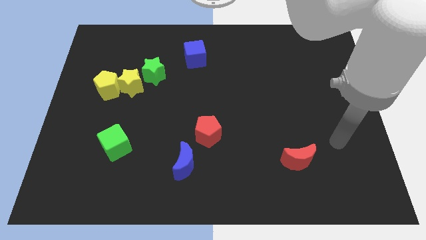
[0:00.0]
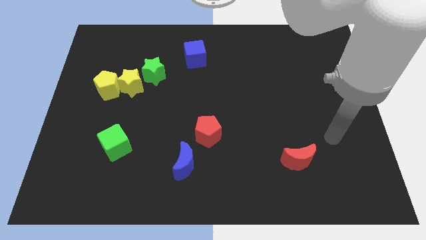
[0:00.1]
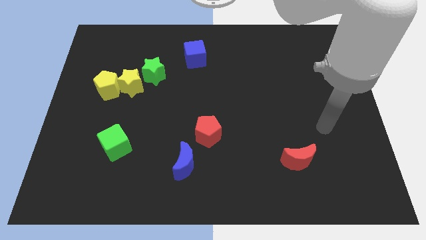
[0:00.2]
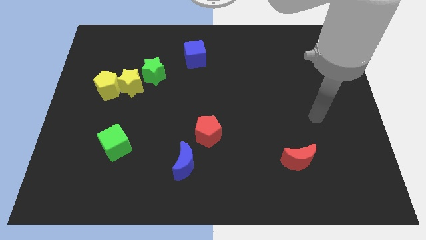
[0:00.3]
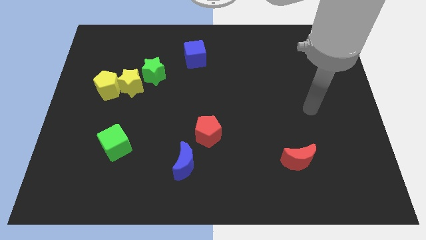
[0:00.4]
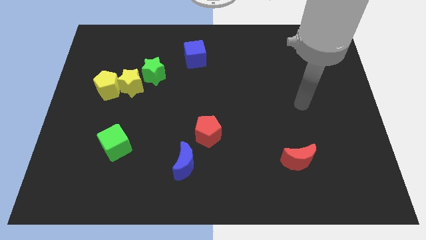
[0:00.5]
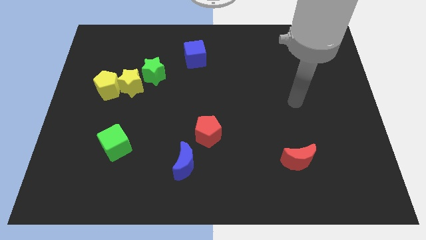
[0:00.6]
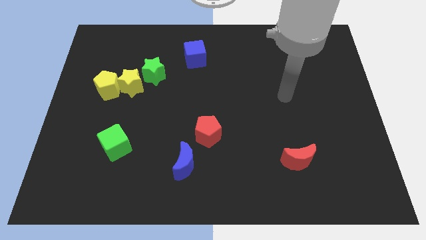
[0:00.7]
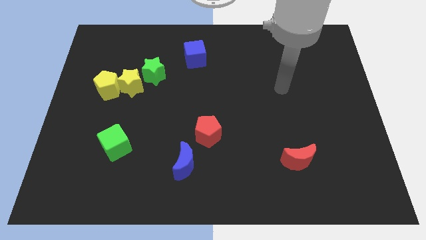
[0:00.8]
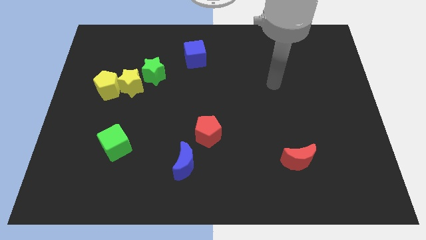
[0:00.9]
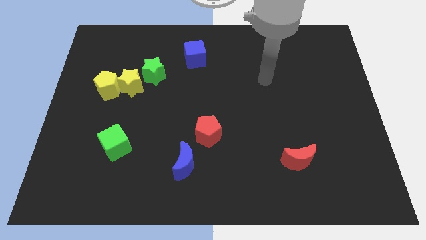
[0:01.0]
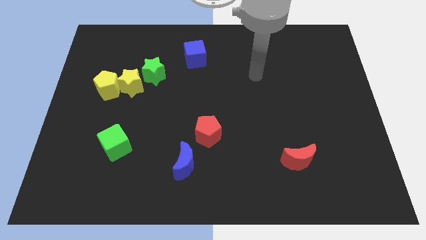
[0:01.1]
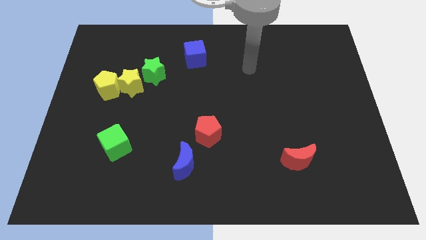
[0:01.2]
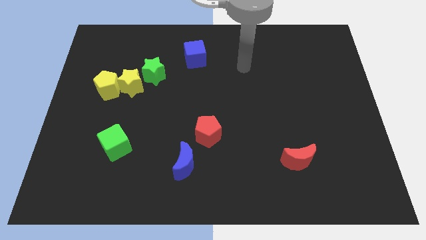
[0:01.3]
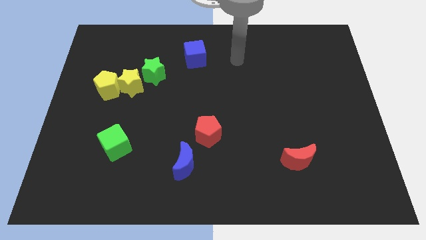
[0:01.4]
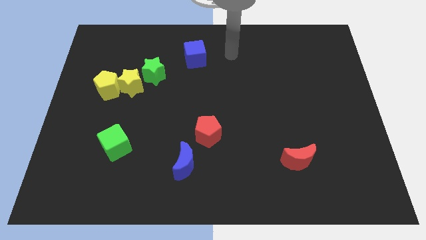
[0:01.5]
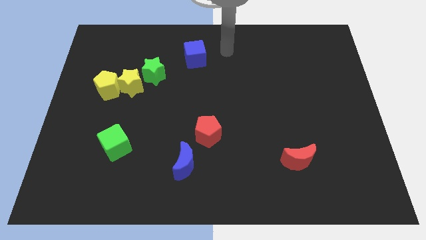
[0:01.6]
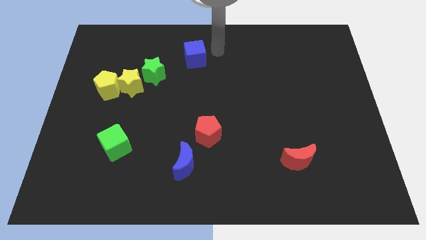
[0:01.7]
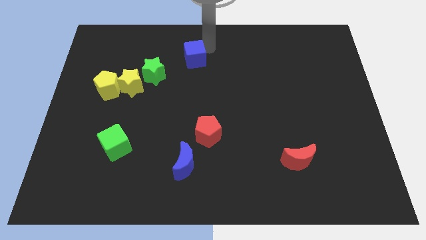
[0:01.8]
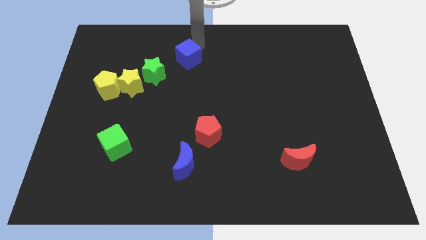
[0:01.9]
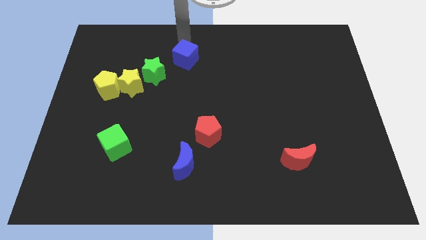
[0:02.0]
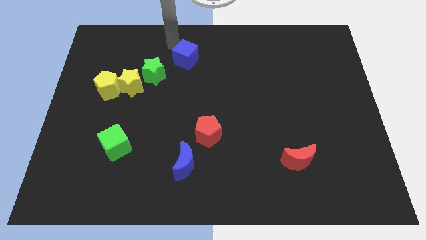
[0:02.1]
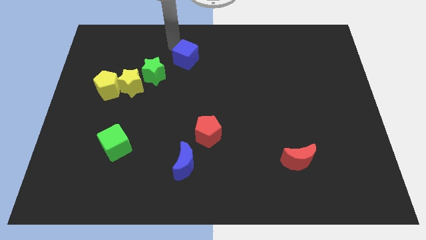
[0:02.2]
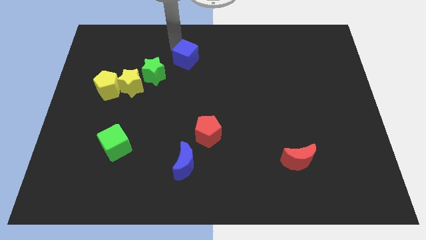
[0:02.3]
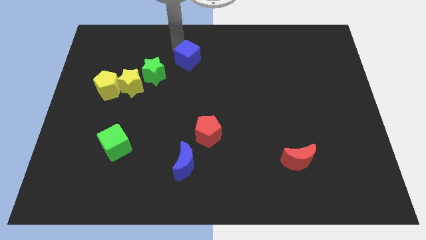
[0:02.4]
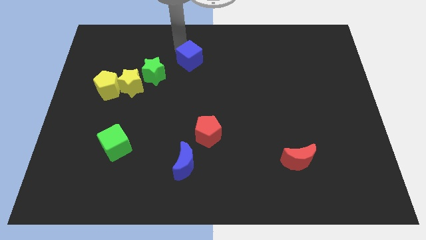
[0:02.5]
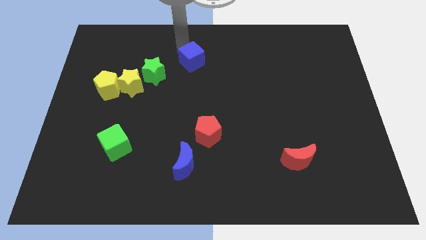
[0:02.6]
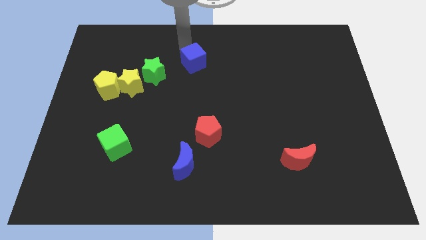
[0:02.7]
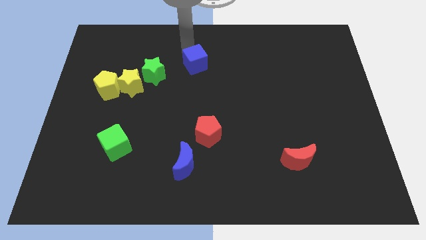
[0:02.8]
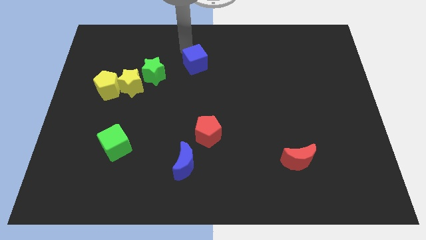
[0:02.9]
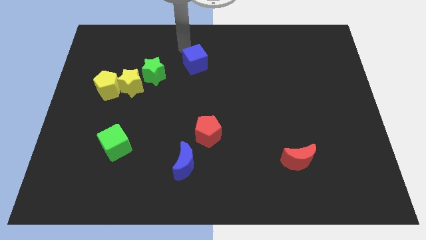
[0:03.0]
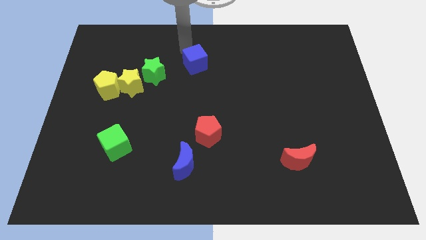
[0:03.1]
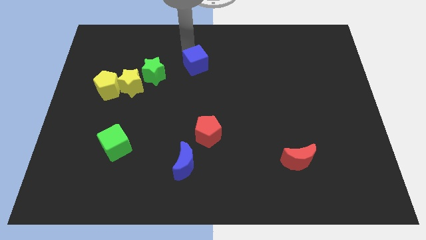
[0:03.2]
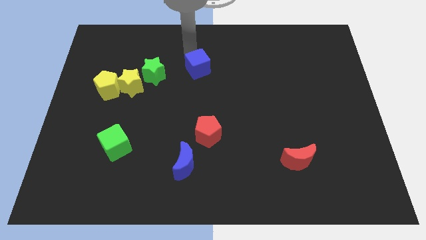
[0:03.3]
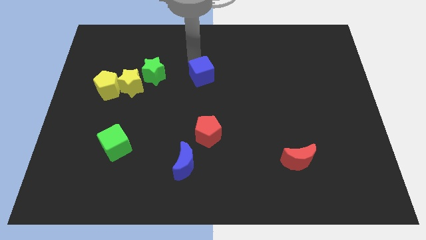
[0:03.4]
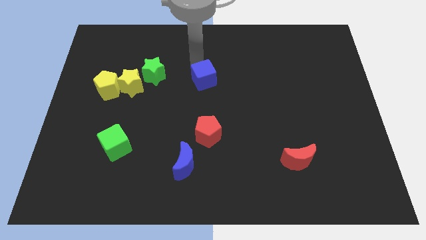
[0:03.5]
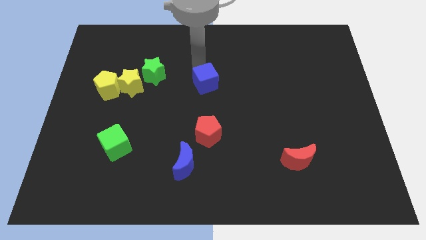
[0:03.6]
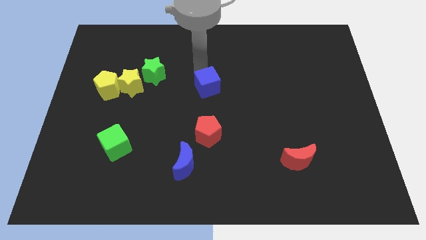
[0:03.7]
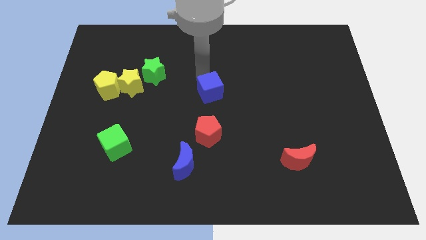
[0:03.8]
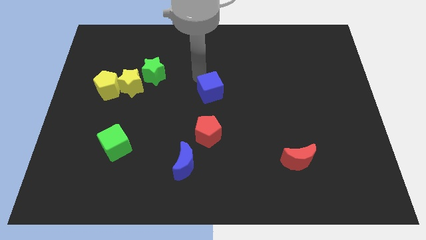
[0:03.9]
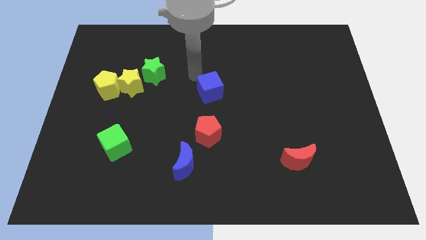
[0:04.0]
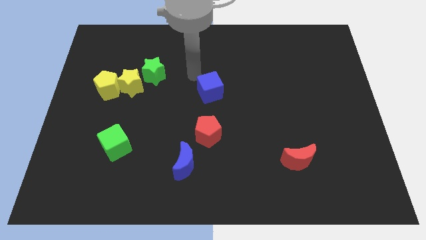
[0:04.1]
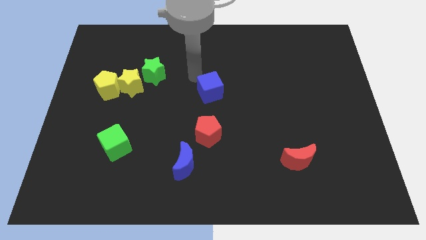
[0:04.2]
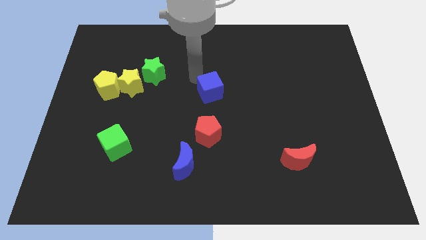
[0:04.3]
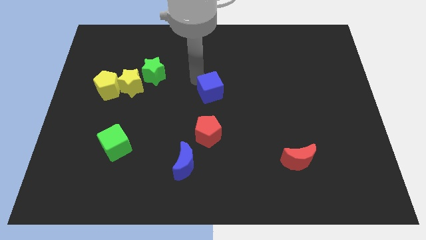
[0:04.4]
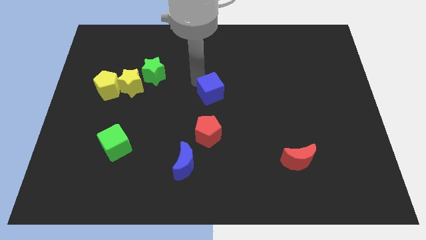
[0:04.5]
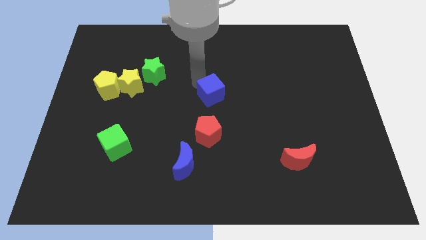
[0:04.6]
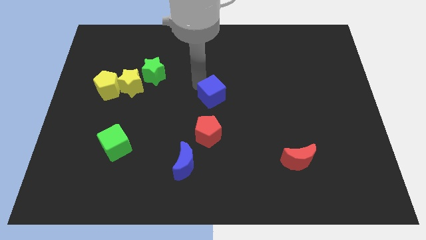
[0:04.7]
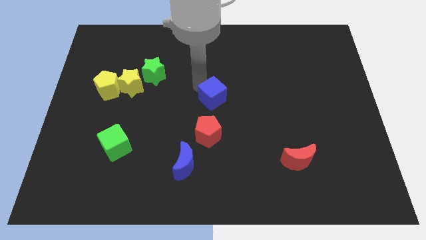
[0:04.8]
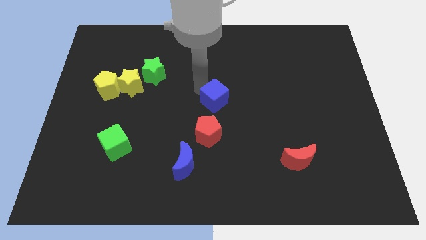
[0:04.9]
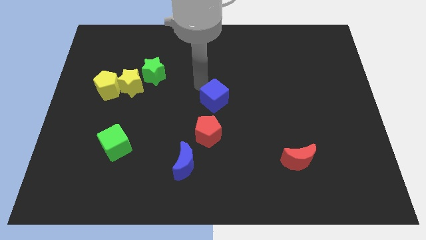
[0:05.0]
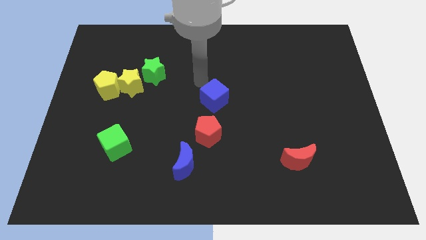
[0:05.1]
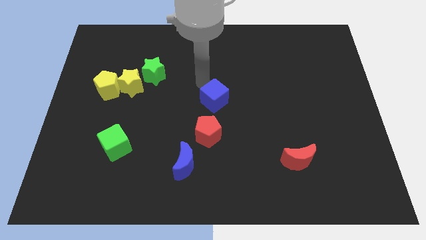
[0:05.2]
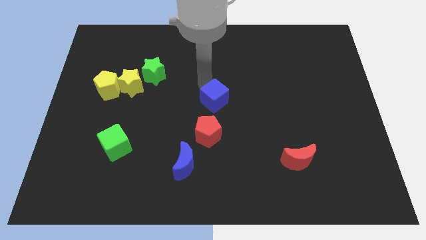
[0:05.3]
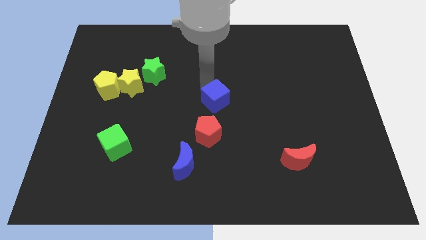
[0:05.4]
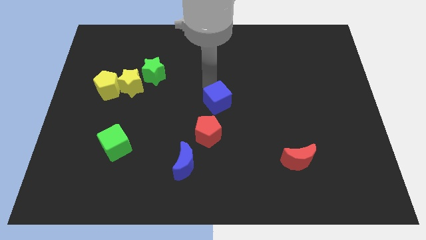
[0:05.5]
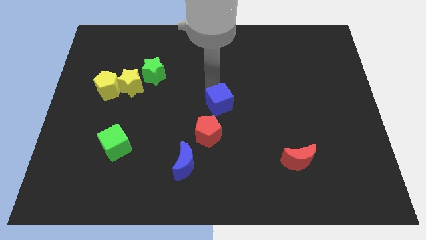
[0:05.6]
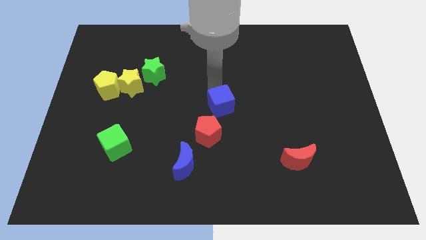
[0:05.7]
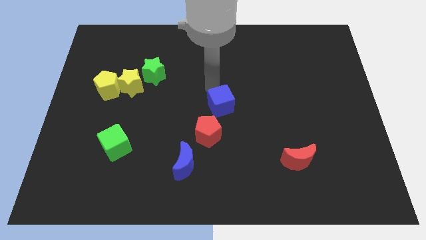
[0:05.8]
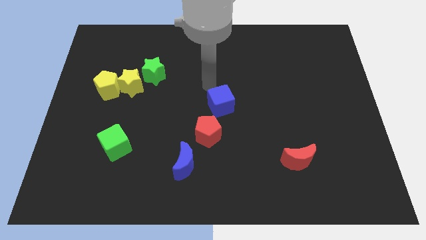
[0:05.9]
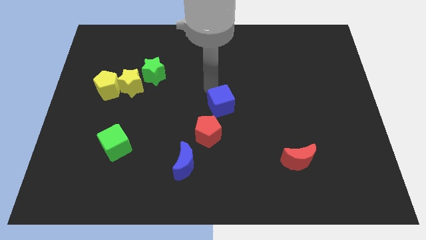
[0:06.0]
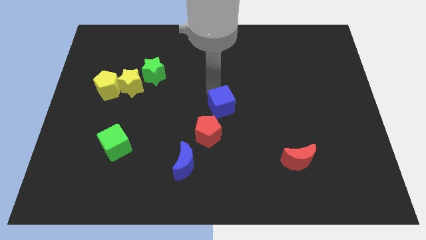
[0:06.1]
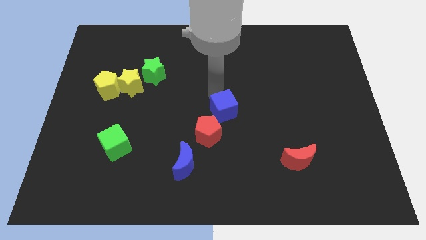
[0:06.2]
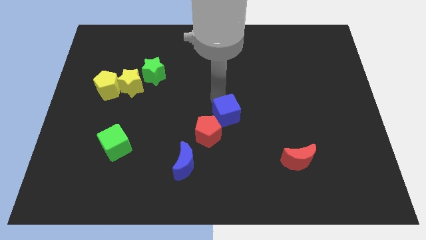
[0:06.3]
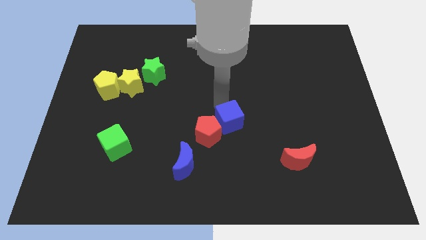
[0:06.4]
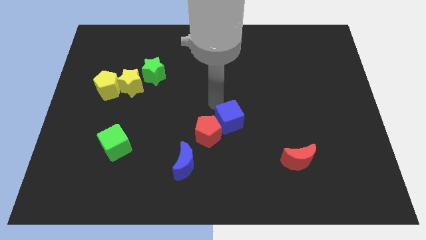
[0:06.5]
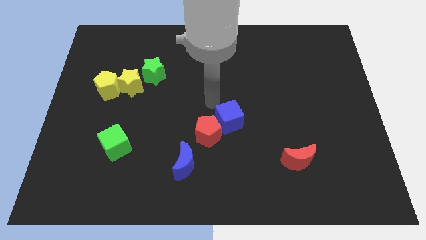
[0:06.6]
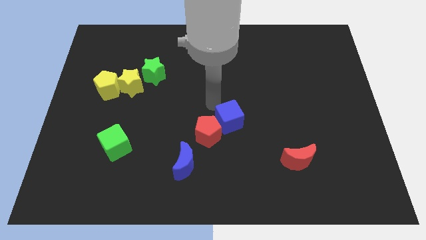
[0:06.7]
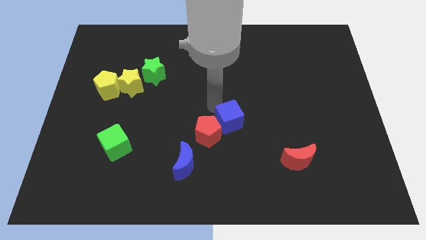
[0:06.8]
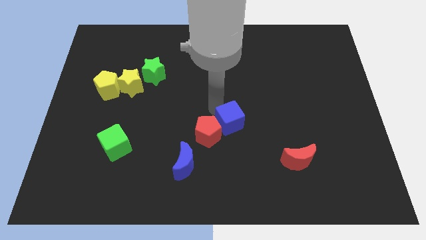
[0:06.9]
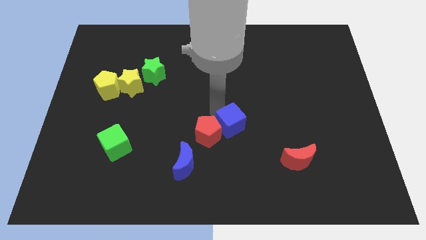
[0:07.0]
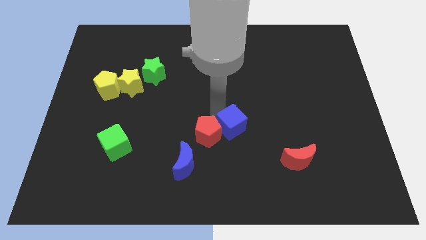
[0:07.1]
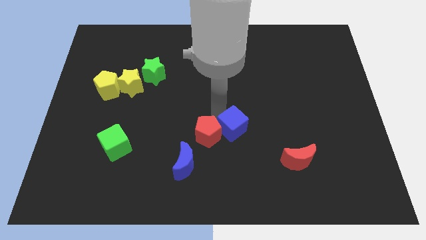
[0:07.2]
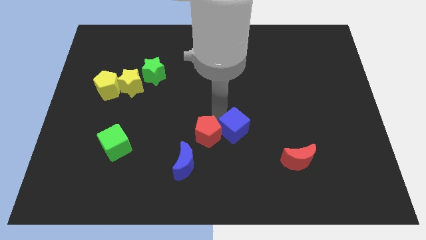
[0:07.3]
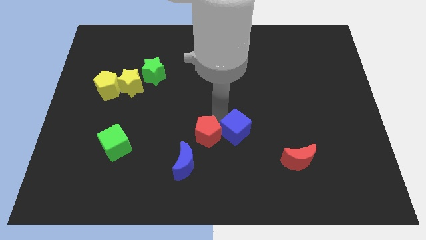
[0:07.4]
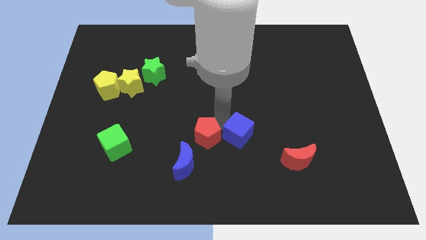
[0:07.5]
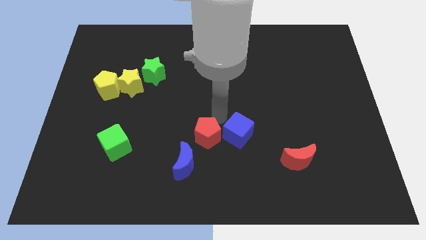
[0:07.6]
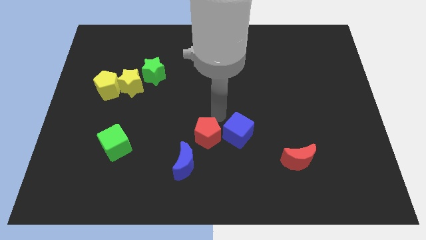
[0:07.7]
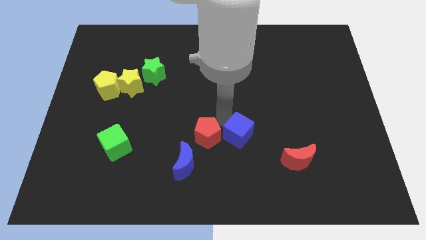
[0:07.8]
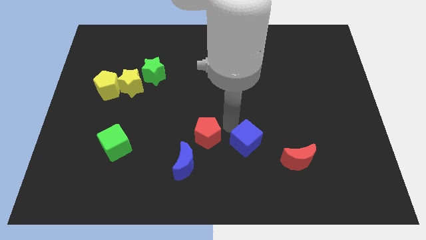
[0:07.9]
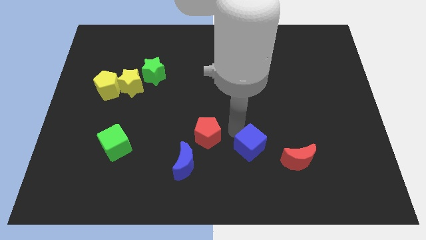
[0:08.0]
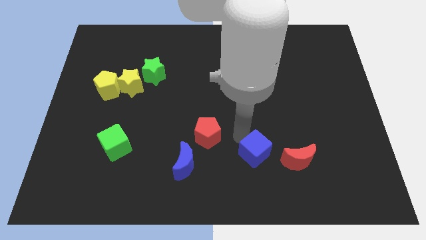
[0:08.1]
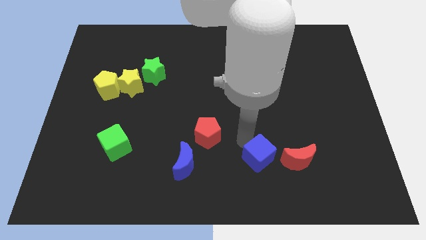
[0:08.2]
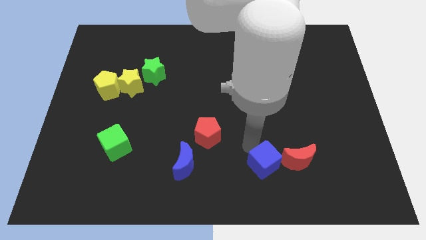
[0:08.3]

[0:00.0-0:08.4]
move the blue cube to the bottom left of the red moon
